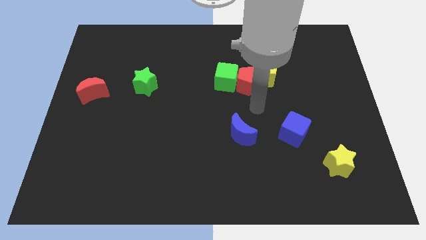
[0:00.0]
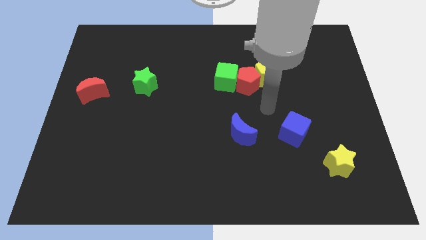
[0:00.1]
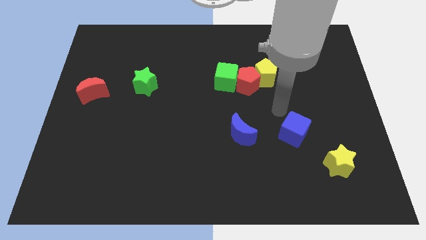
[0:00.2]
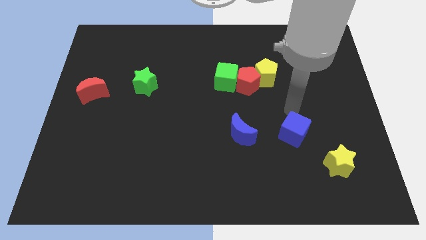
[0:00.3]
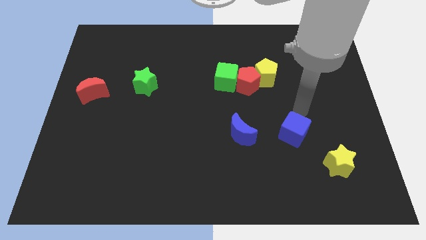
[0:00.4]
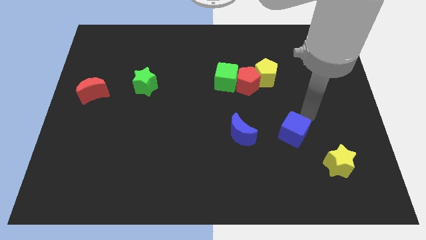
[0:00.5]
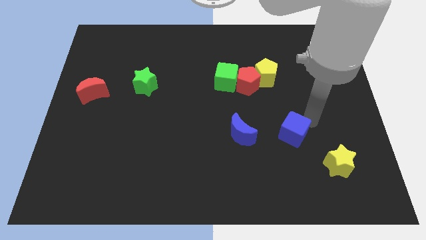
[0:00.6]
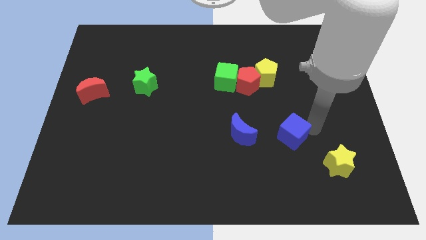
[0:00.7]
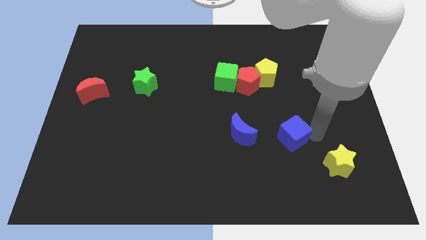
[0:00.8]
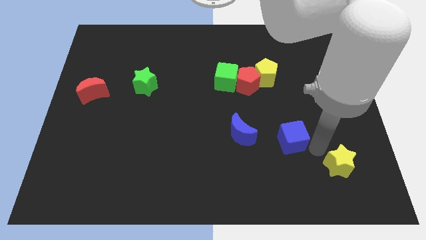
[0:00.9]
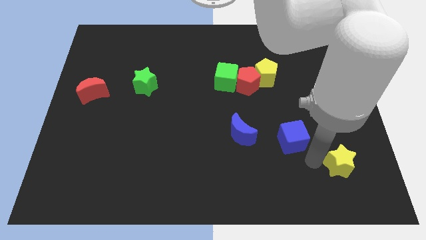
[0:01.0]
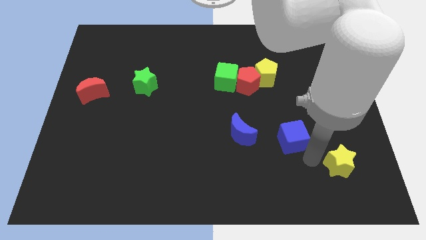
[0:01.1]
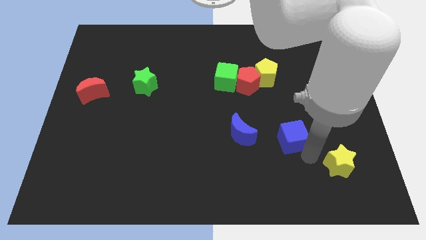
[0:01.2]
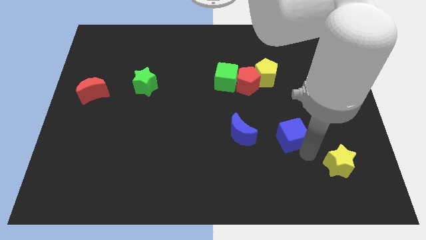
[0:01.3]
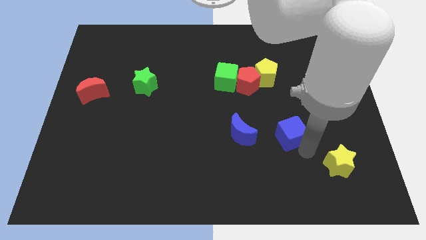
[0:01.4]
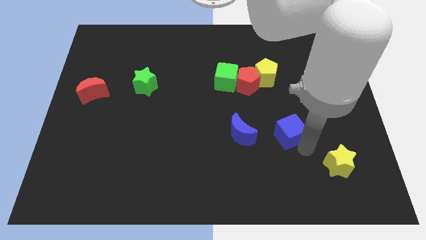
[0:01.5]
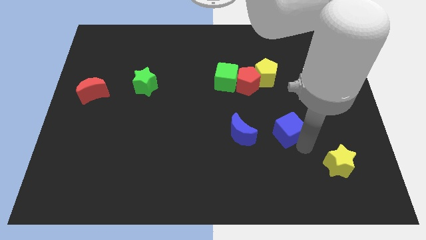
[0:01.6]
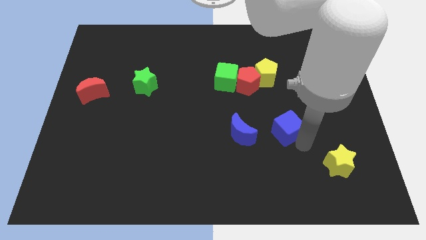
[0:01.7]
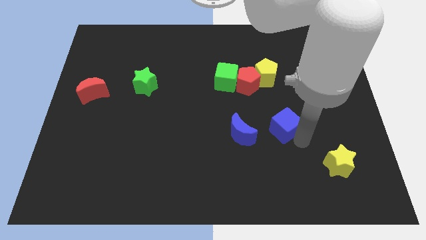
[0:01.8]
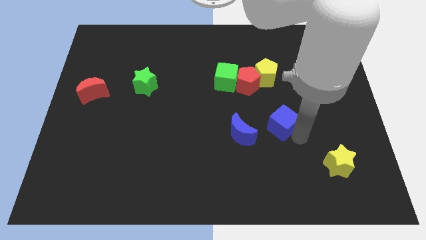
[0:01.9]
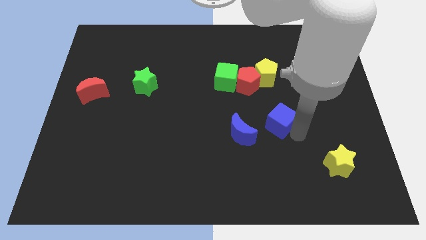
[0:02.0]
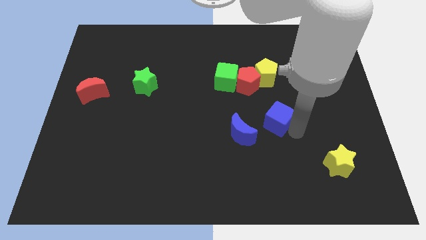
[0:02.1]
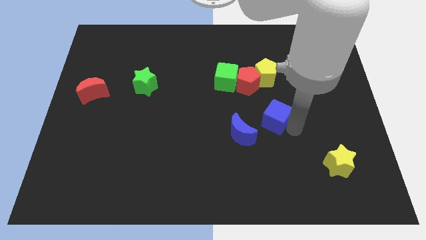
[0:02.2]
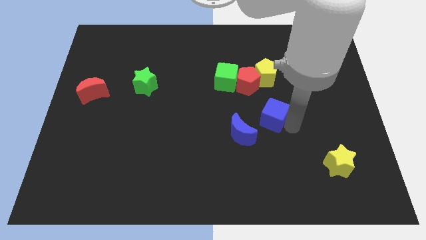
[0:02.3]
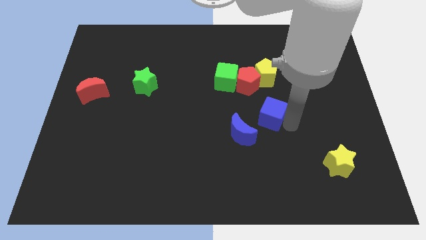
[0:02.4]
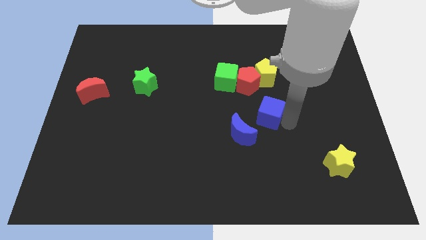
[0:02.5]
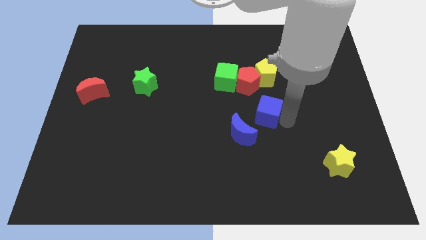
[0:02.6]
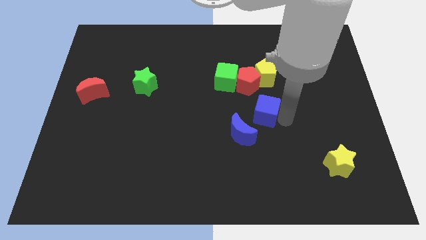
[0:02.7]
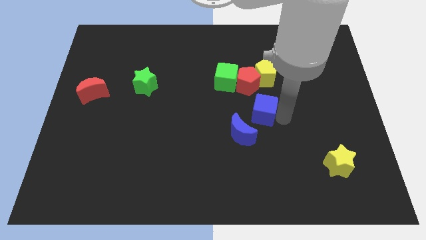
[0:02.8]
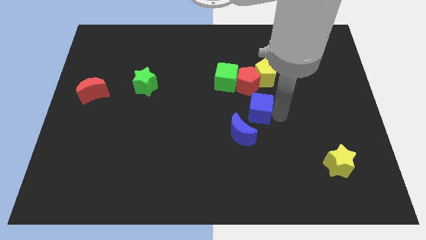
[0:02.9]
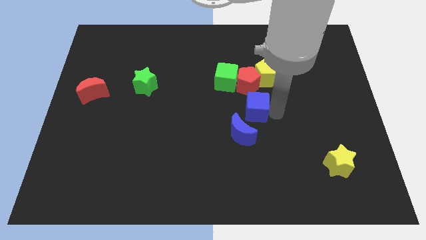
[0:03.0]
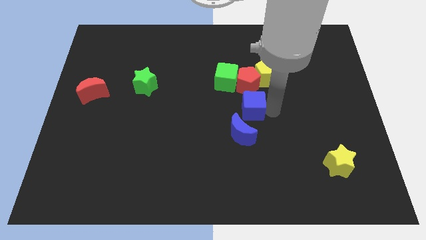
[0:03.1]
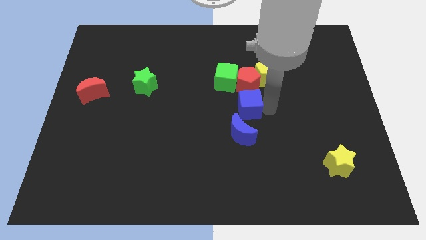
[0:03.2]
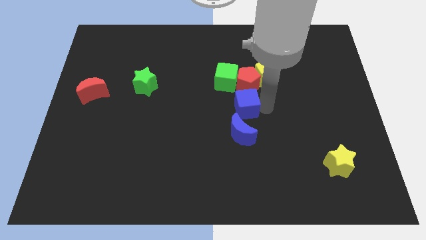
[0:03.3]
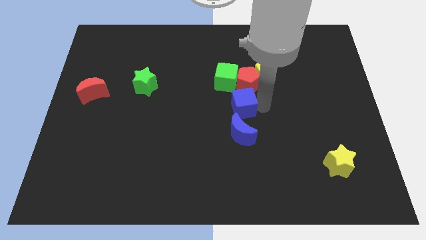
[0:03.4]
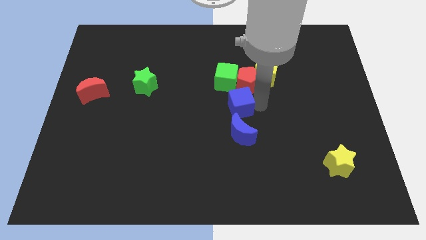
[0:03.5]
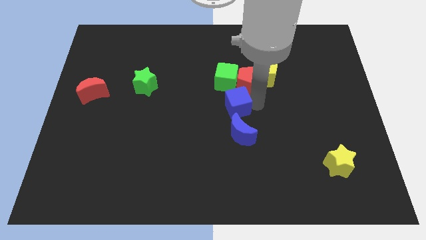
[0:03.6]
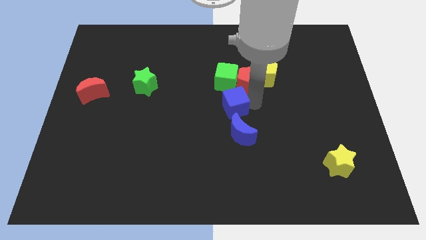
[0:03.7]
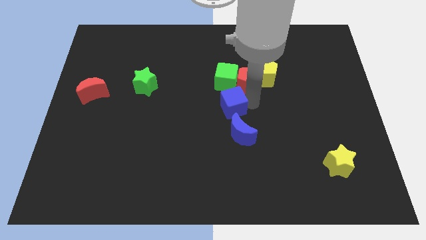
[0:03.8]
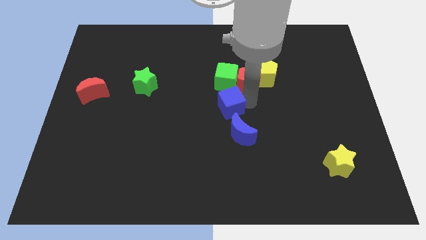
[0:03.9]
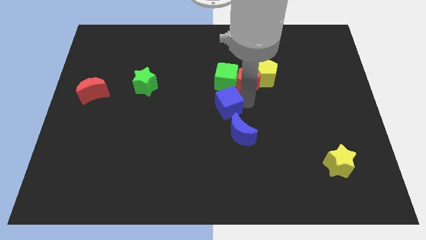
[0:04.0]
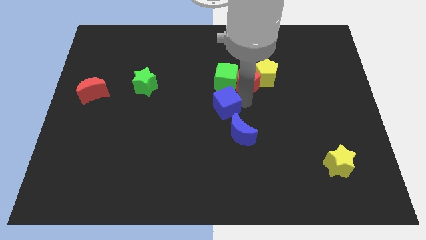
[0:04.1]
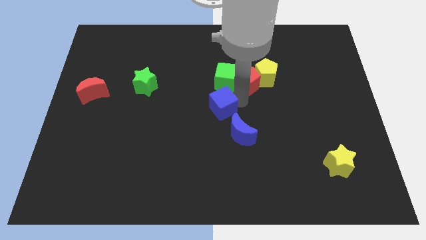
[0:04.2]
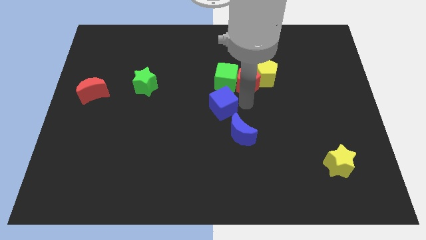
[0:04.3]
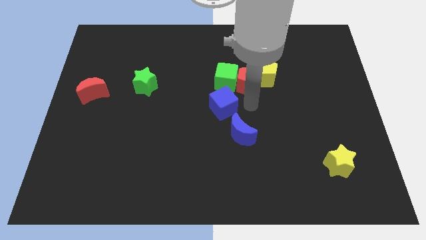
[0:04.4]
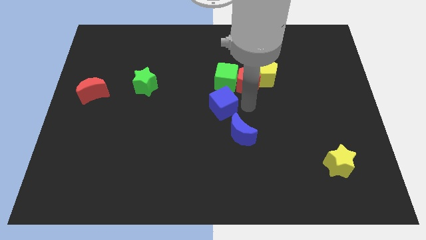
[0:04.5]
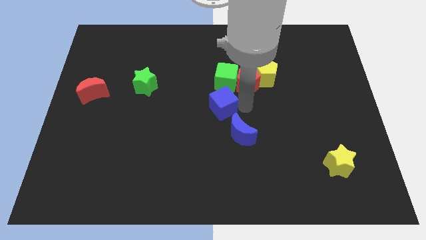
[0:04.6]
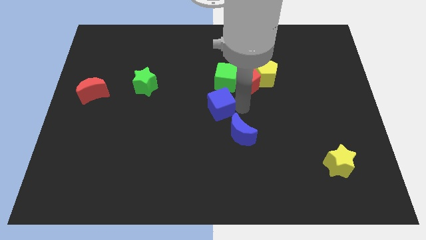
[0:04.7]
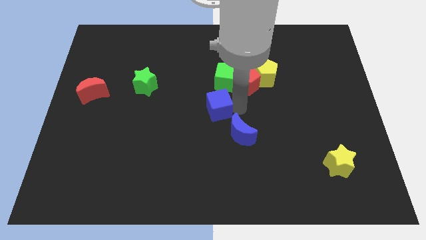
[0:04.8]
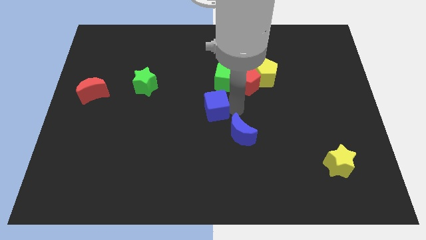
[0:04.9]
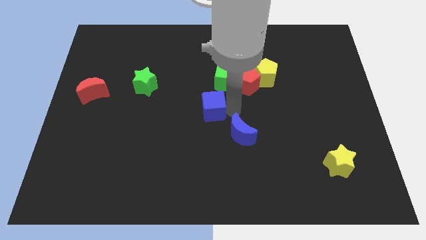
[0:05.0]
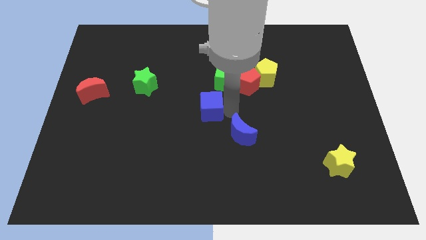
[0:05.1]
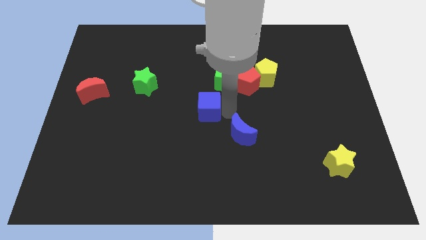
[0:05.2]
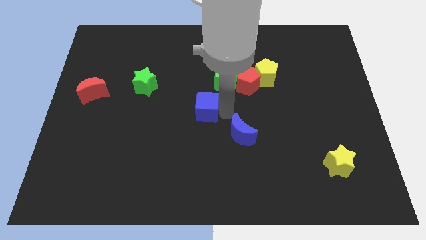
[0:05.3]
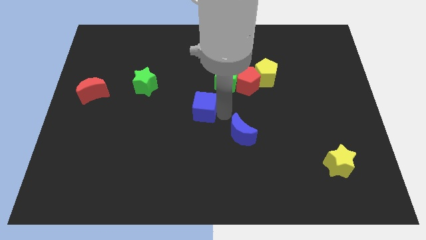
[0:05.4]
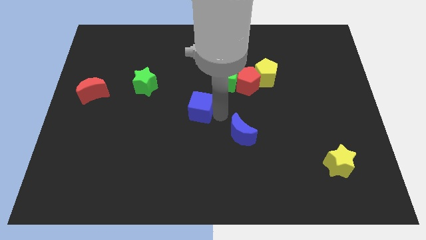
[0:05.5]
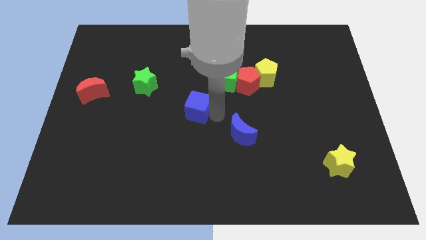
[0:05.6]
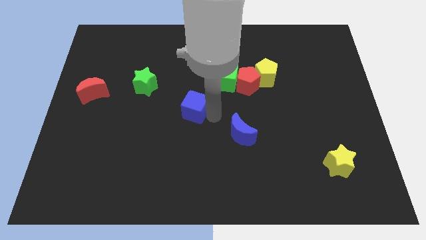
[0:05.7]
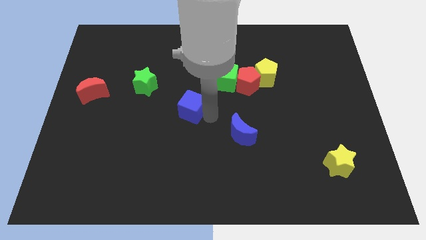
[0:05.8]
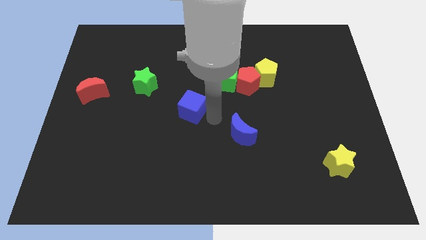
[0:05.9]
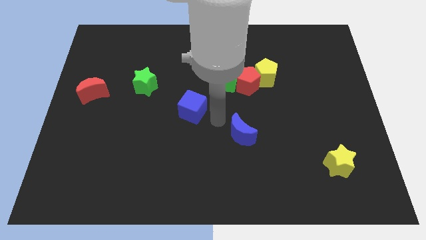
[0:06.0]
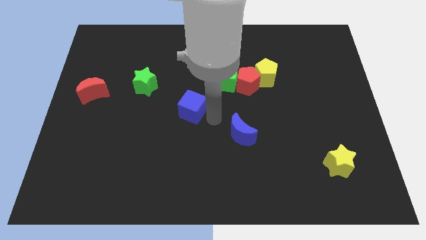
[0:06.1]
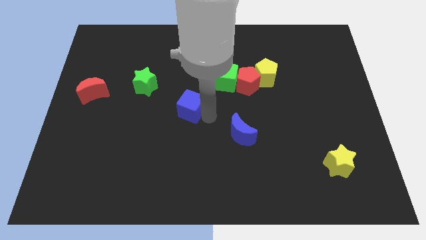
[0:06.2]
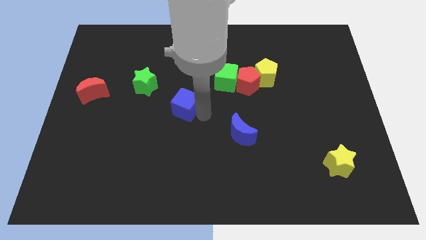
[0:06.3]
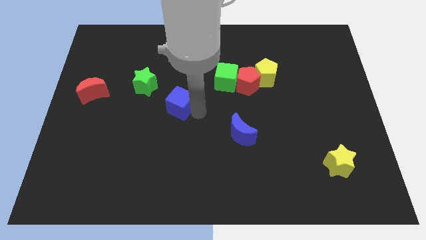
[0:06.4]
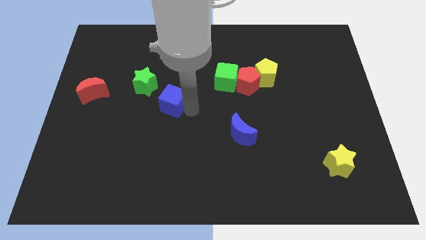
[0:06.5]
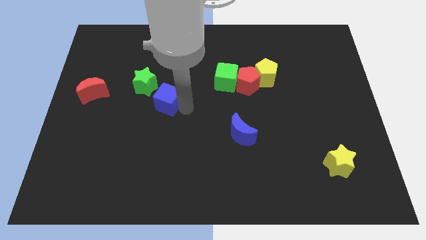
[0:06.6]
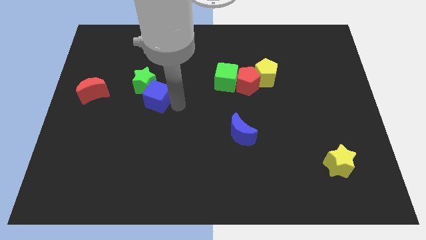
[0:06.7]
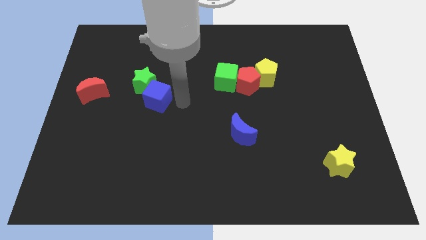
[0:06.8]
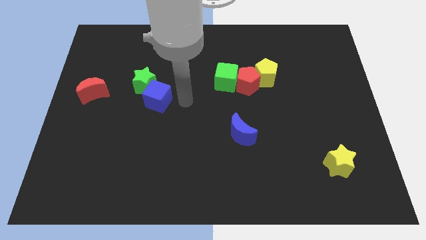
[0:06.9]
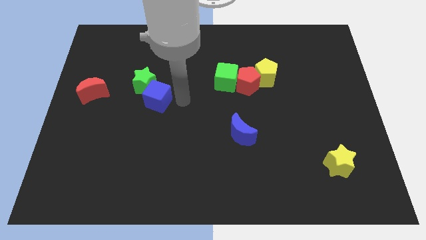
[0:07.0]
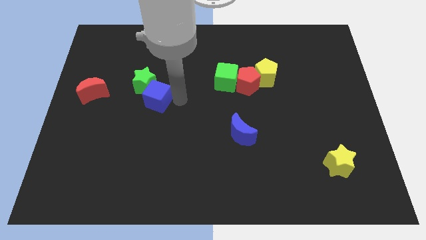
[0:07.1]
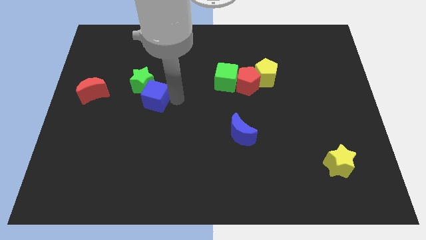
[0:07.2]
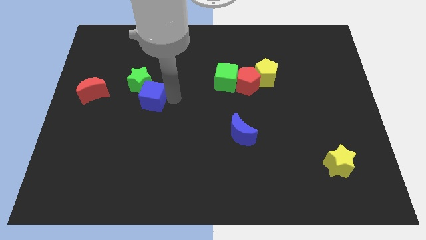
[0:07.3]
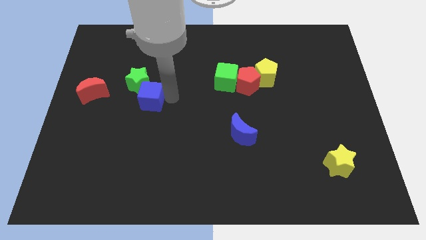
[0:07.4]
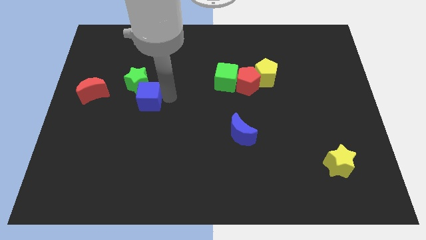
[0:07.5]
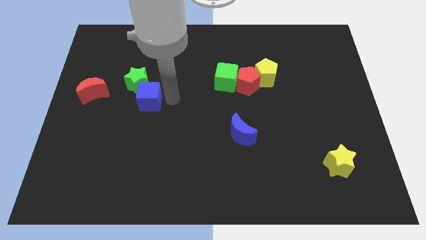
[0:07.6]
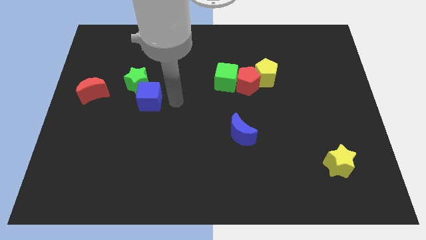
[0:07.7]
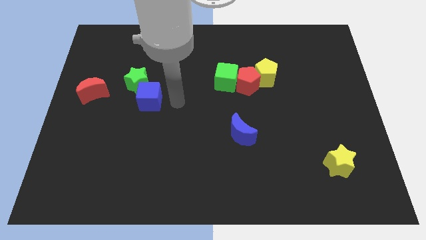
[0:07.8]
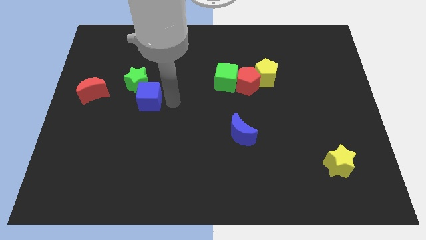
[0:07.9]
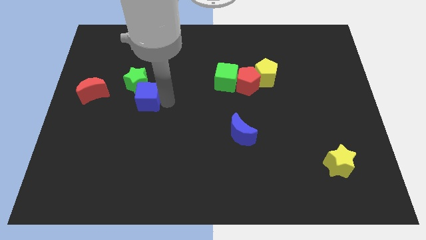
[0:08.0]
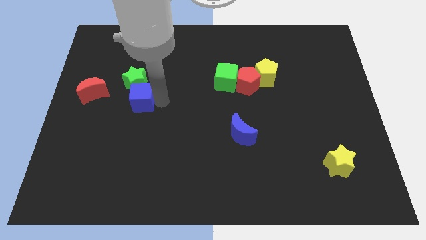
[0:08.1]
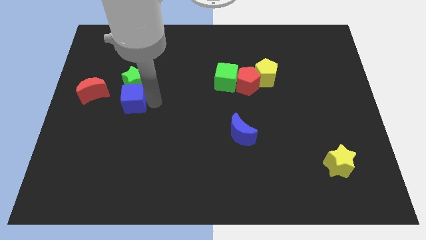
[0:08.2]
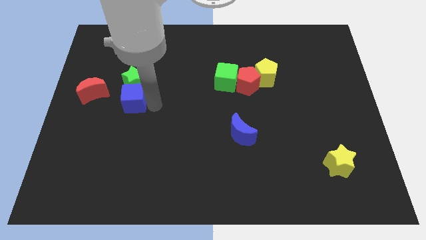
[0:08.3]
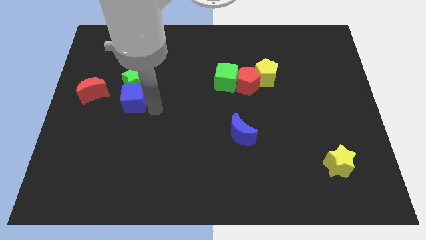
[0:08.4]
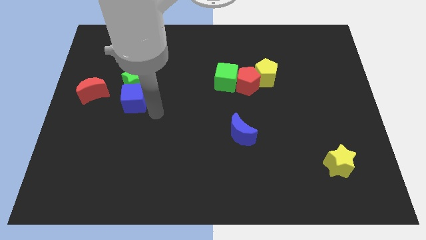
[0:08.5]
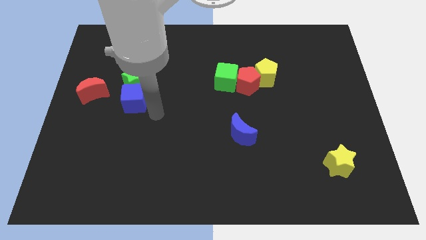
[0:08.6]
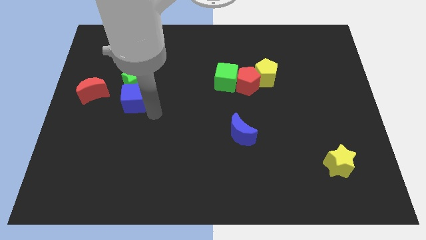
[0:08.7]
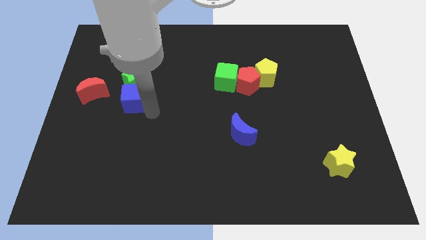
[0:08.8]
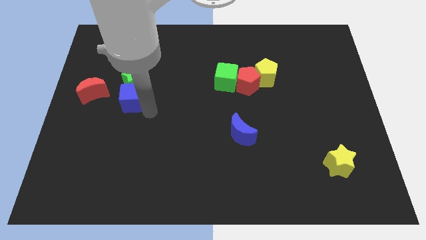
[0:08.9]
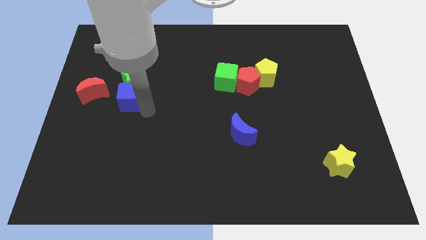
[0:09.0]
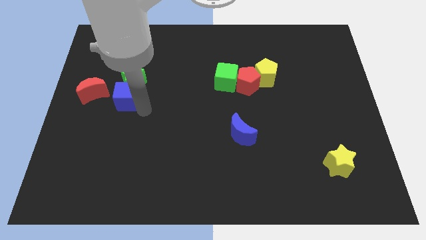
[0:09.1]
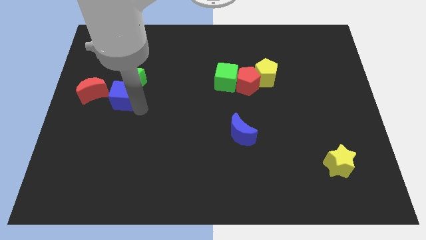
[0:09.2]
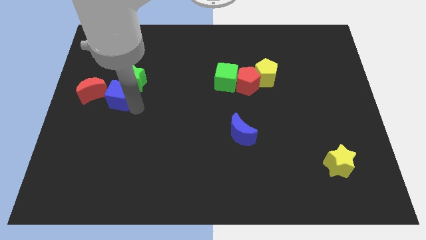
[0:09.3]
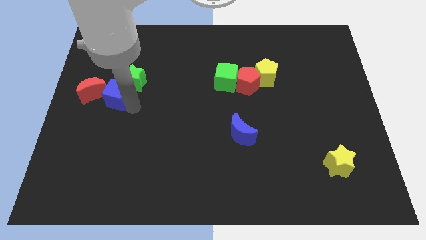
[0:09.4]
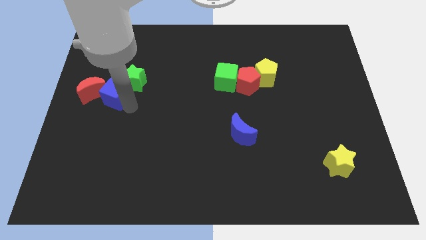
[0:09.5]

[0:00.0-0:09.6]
put the blue cube close to the red moon
